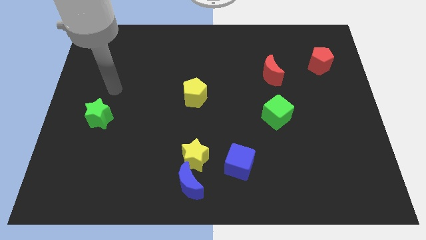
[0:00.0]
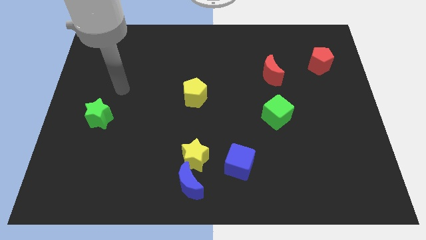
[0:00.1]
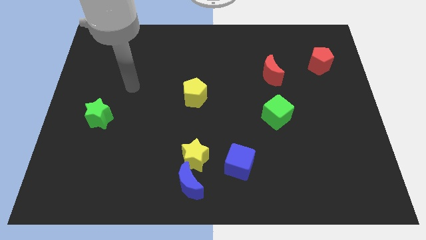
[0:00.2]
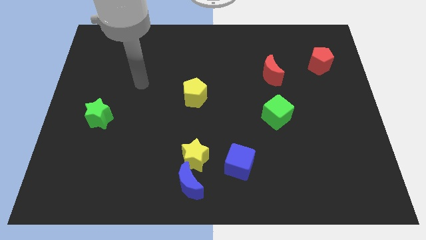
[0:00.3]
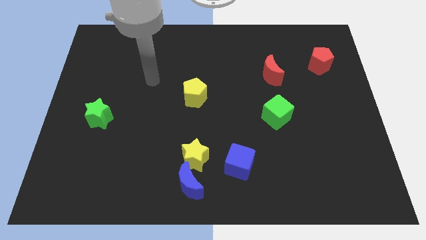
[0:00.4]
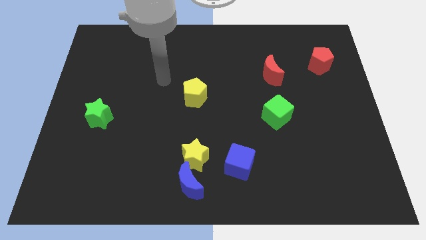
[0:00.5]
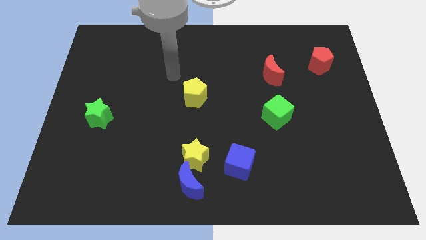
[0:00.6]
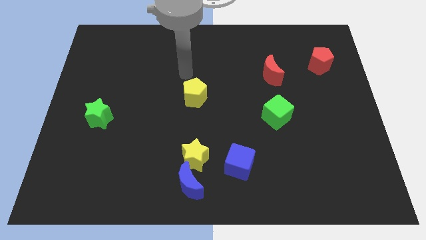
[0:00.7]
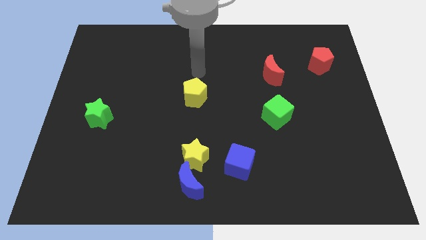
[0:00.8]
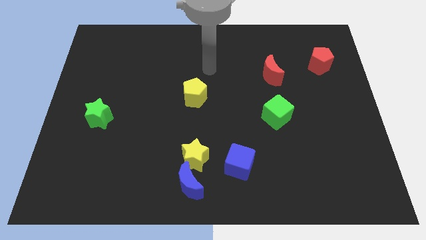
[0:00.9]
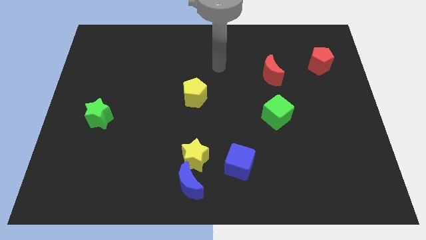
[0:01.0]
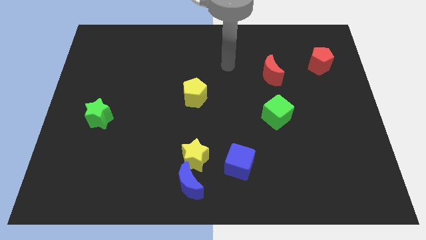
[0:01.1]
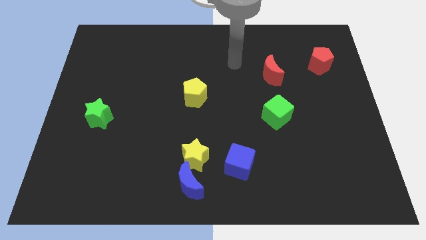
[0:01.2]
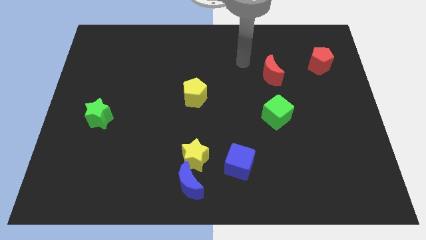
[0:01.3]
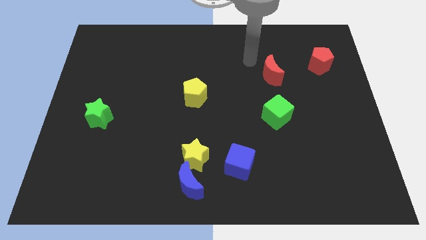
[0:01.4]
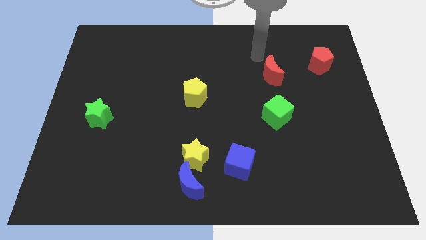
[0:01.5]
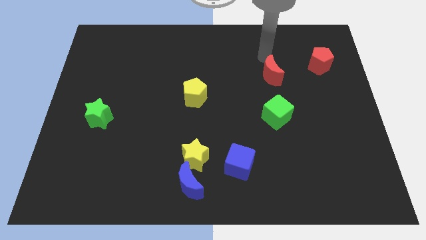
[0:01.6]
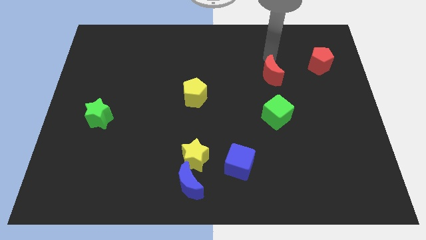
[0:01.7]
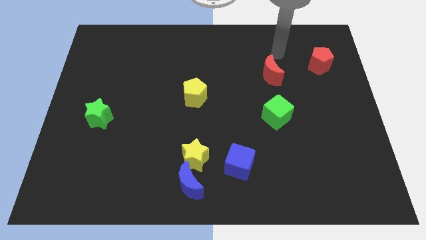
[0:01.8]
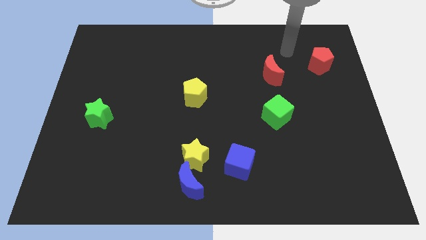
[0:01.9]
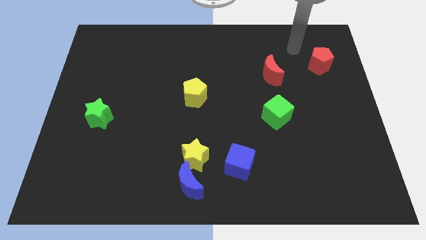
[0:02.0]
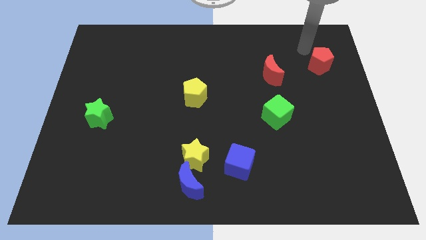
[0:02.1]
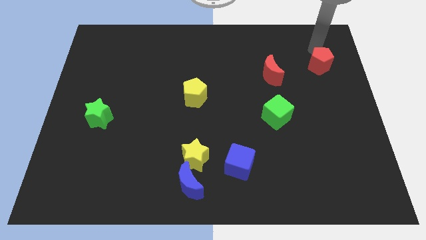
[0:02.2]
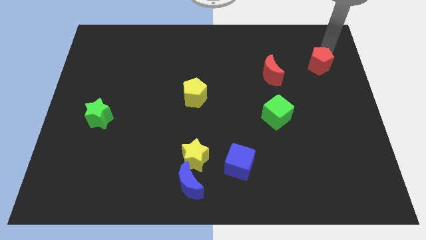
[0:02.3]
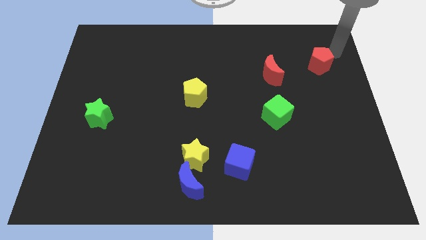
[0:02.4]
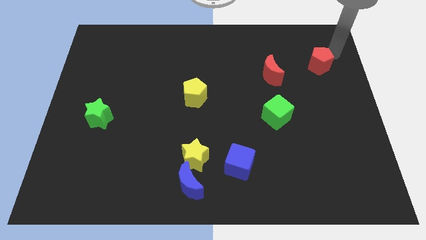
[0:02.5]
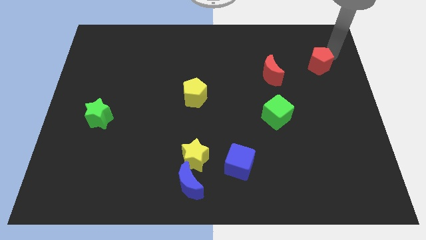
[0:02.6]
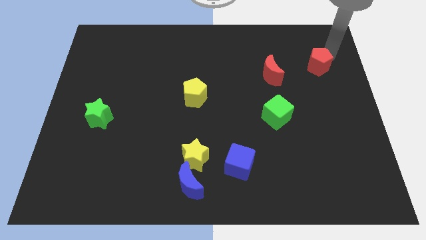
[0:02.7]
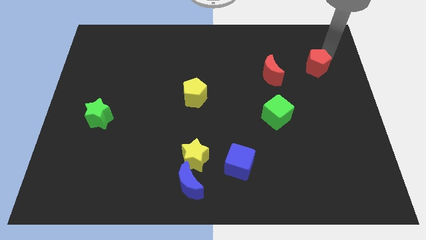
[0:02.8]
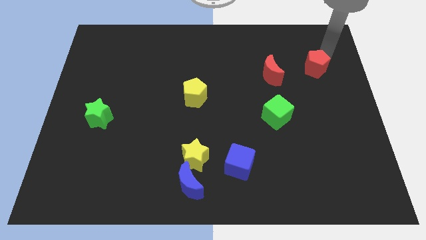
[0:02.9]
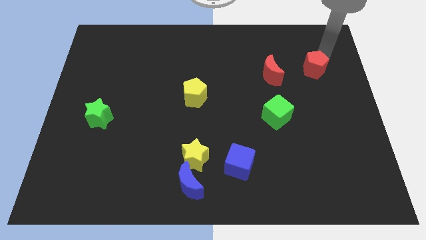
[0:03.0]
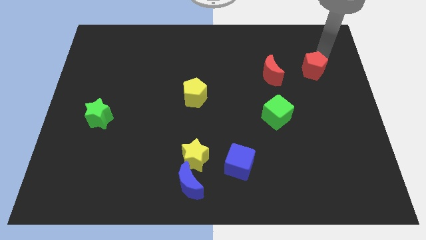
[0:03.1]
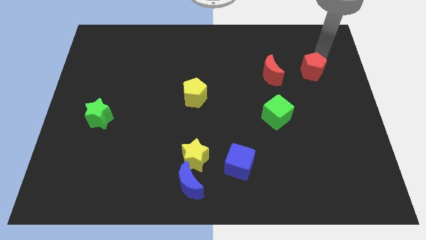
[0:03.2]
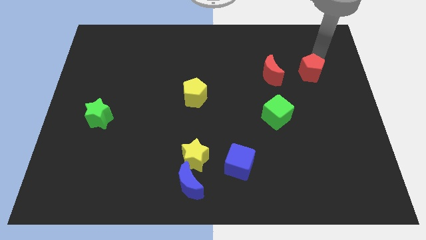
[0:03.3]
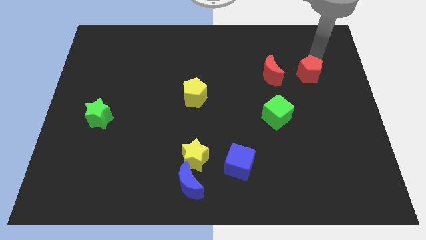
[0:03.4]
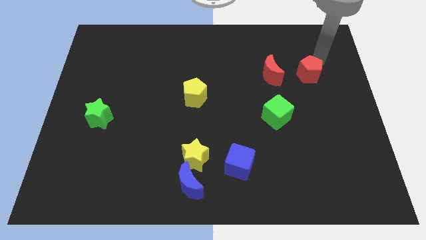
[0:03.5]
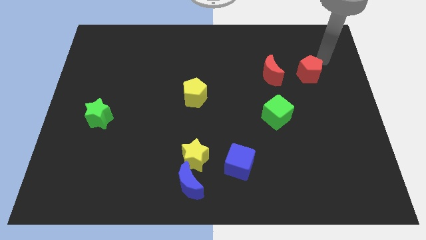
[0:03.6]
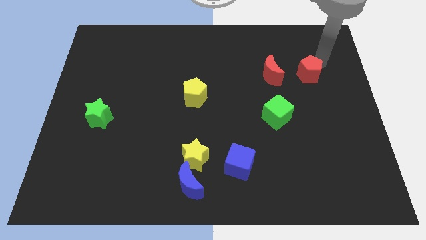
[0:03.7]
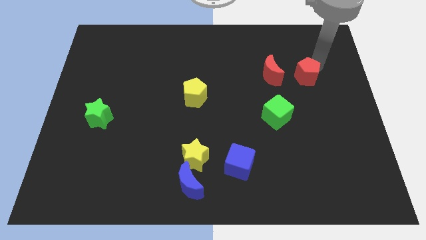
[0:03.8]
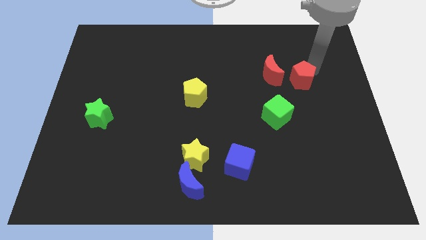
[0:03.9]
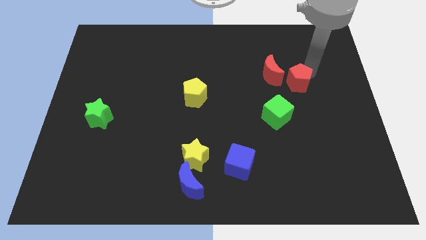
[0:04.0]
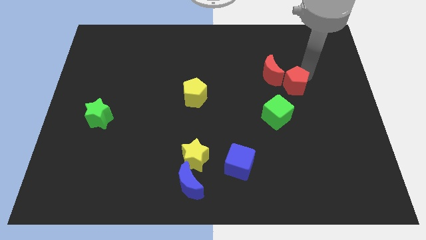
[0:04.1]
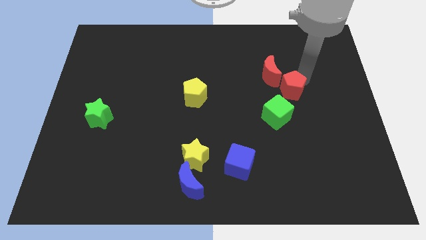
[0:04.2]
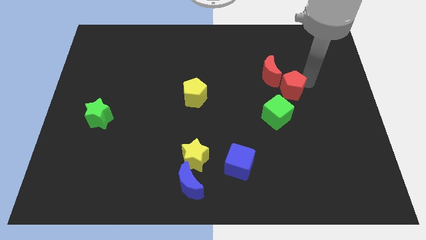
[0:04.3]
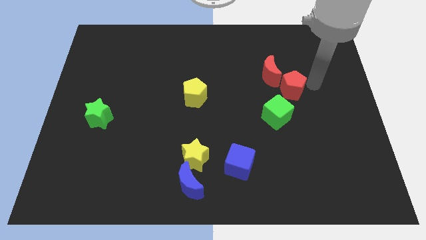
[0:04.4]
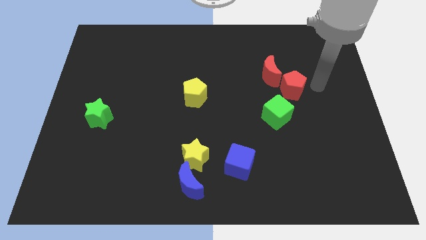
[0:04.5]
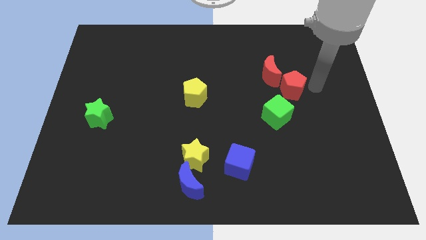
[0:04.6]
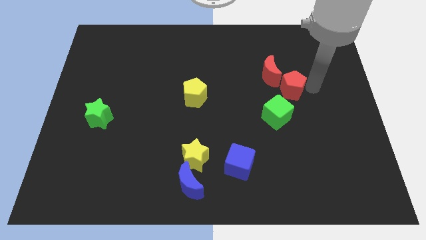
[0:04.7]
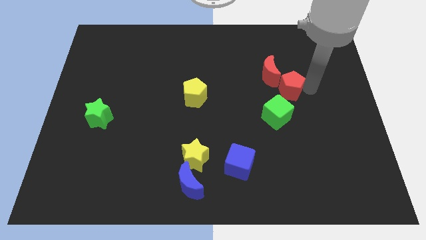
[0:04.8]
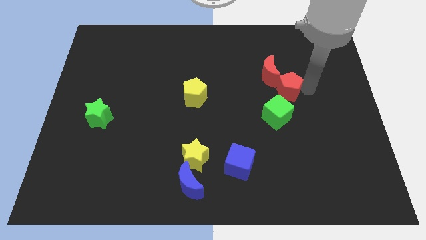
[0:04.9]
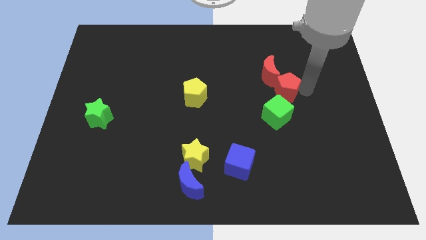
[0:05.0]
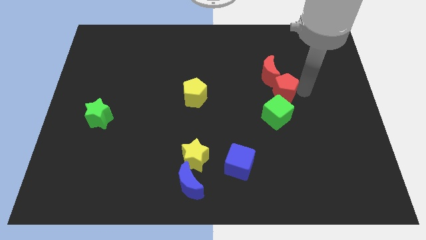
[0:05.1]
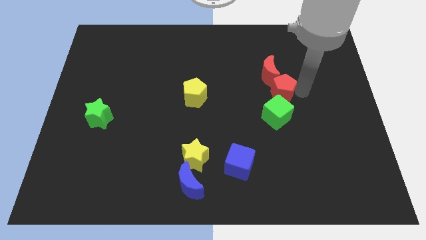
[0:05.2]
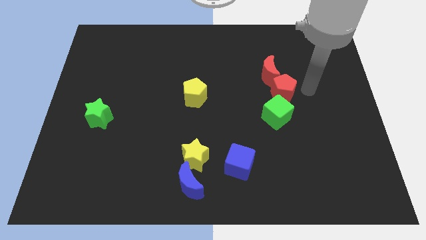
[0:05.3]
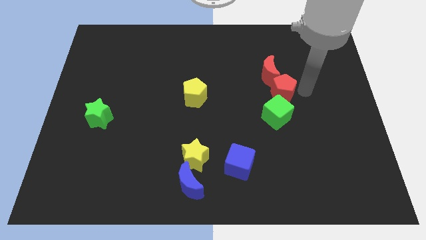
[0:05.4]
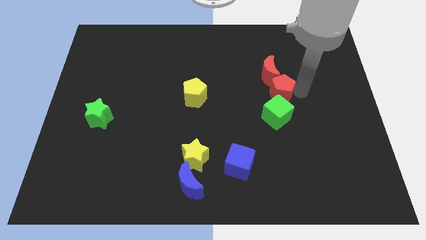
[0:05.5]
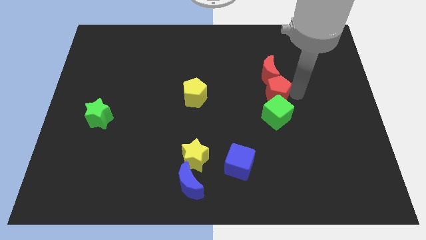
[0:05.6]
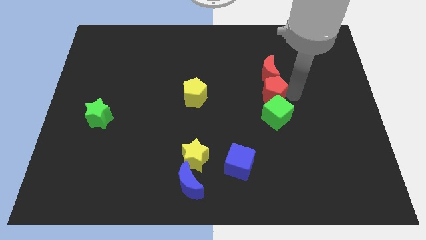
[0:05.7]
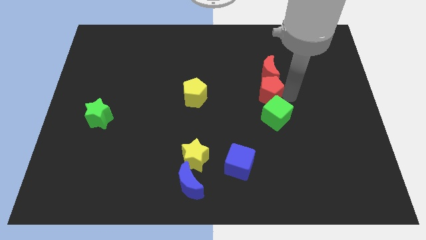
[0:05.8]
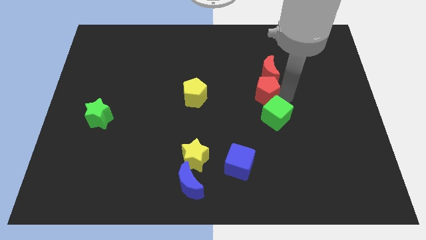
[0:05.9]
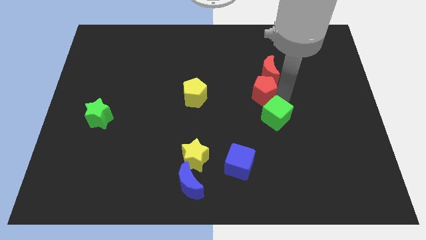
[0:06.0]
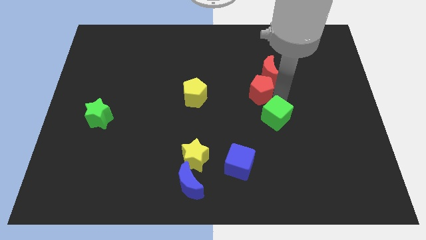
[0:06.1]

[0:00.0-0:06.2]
push the red pentagon to the right of the yellow pentagon

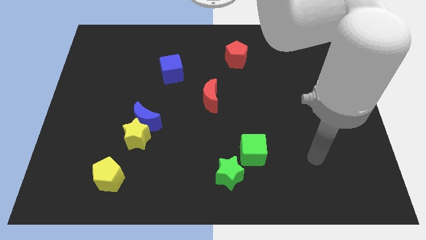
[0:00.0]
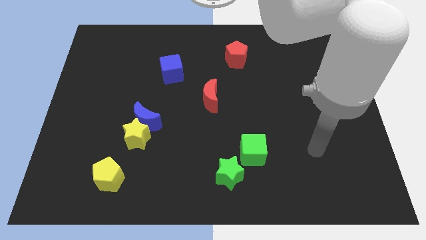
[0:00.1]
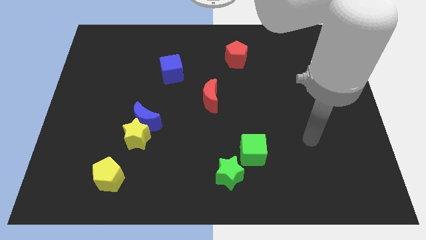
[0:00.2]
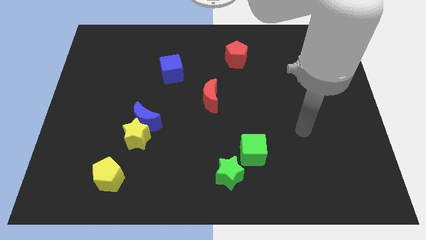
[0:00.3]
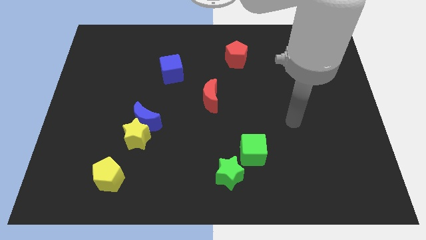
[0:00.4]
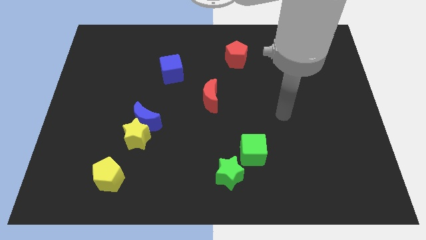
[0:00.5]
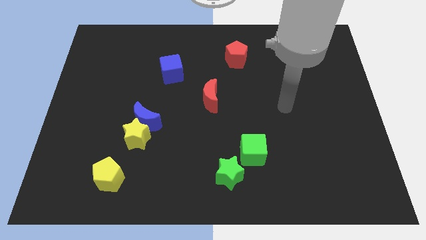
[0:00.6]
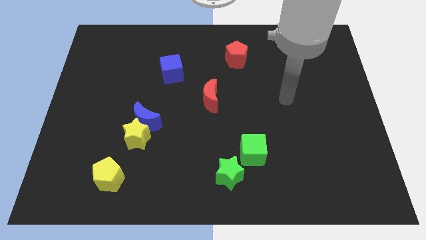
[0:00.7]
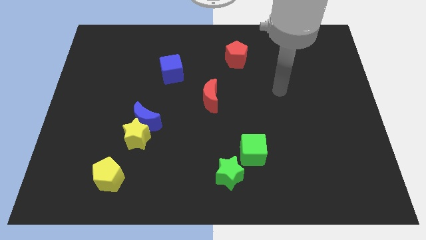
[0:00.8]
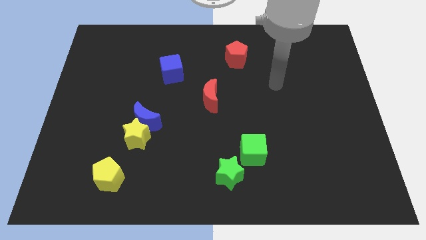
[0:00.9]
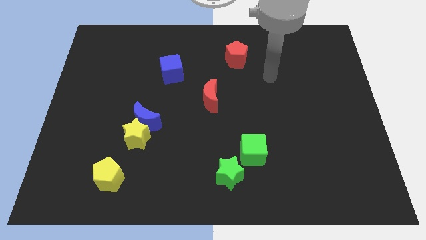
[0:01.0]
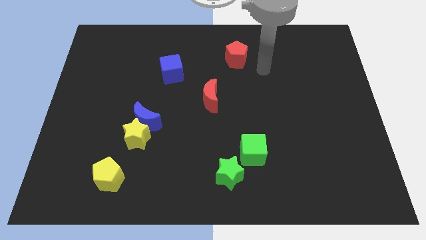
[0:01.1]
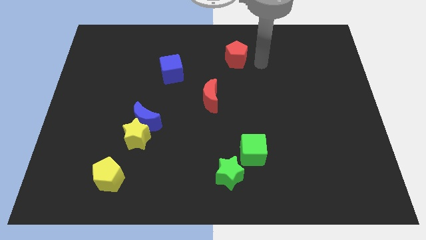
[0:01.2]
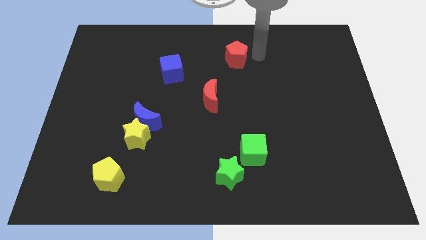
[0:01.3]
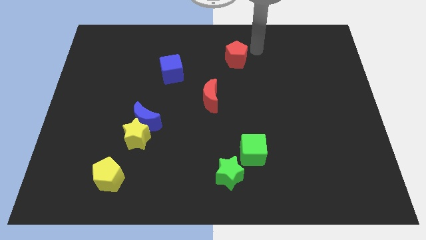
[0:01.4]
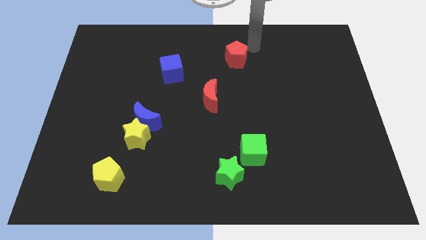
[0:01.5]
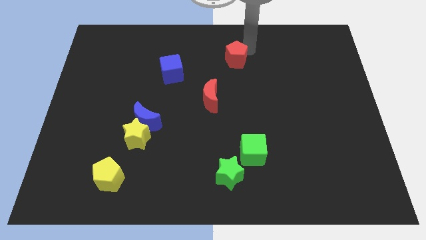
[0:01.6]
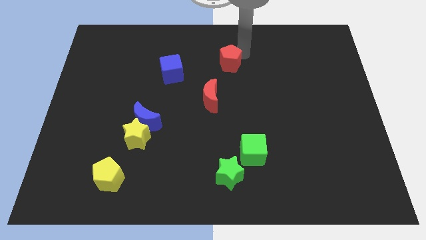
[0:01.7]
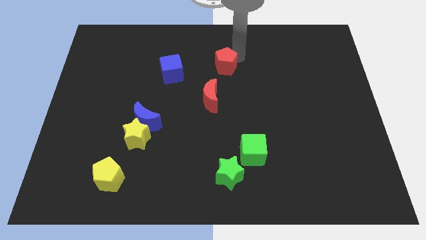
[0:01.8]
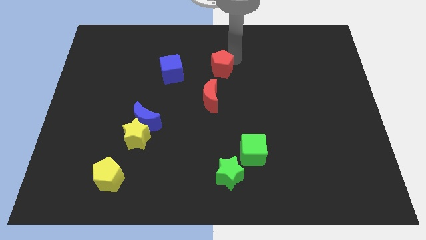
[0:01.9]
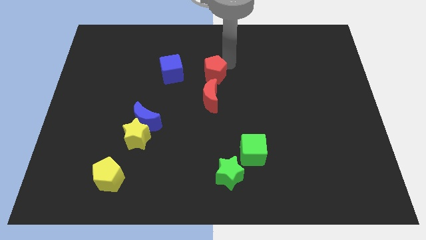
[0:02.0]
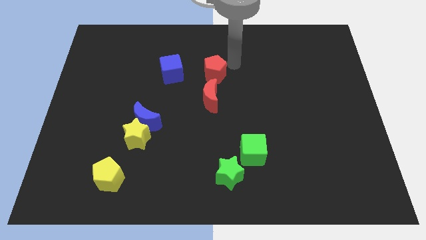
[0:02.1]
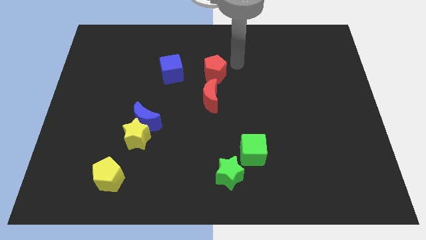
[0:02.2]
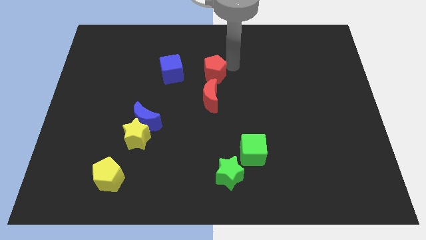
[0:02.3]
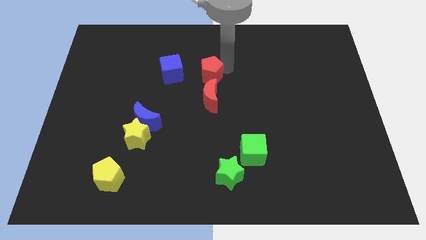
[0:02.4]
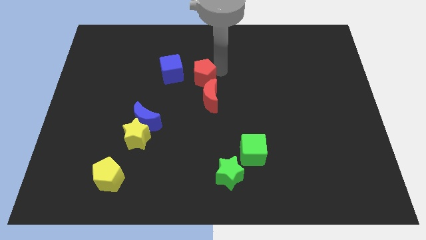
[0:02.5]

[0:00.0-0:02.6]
put the red pentagon to the top left side of the red moon
